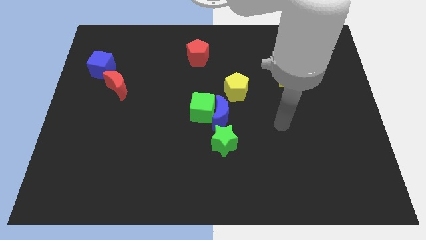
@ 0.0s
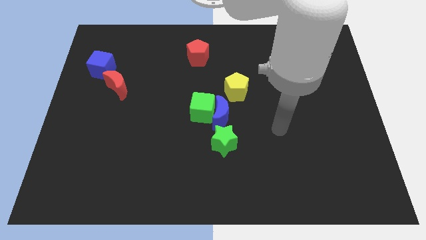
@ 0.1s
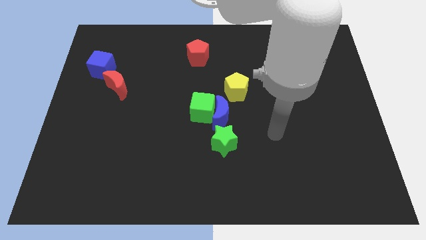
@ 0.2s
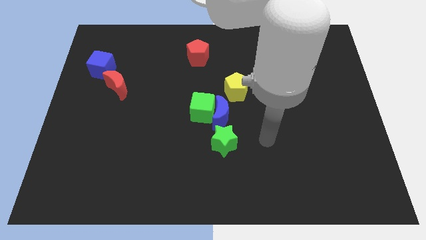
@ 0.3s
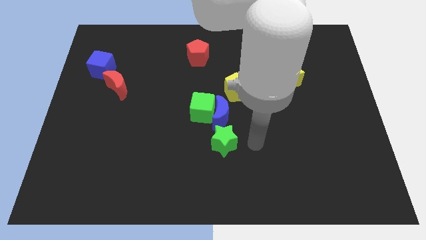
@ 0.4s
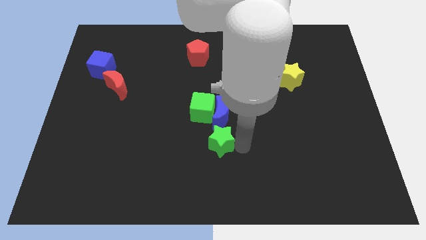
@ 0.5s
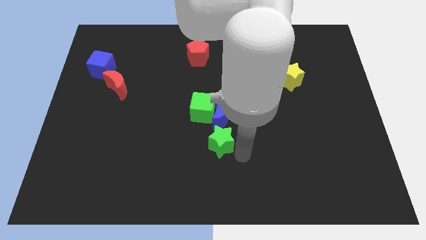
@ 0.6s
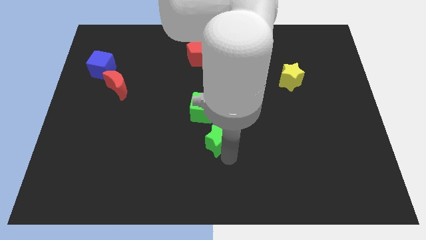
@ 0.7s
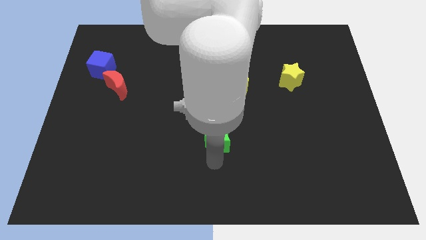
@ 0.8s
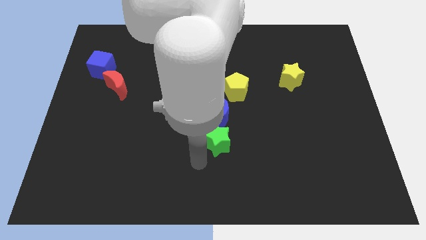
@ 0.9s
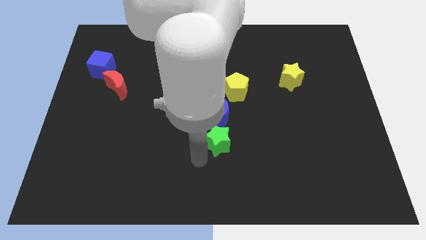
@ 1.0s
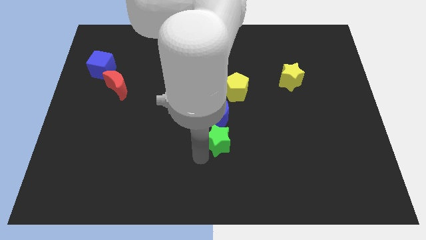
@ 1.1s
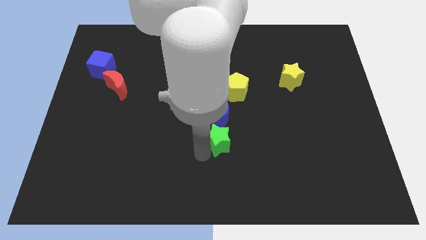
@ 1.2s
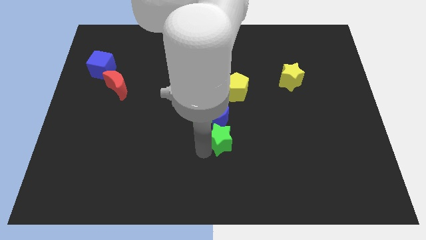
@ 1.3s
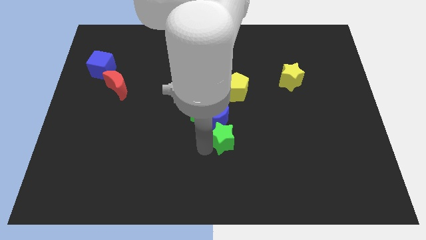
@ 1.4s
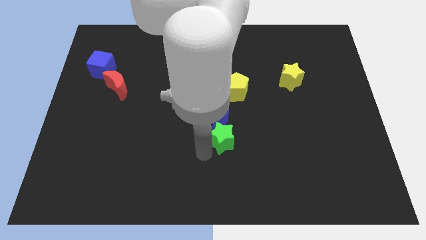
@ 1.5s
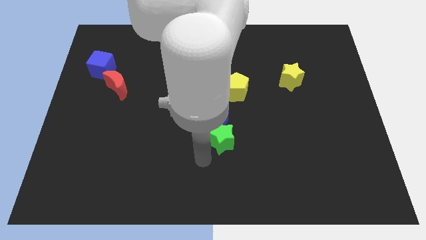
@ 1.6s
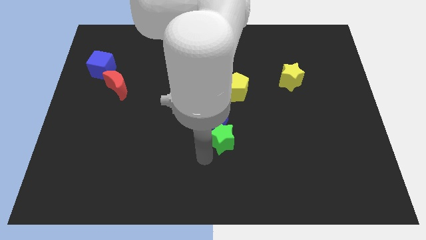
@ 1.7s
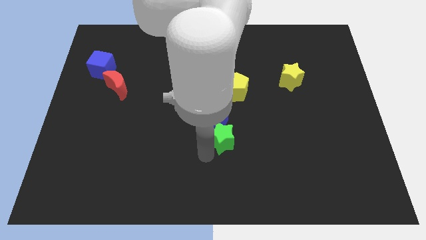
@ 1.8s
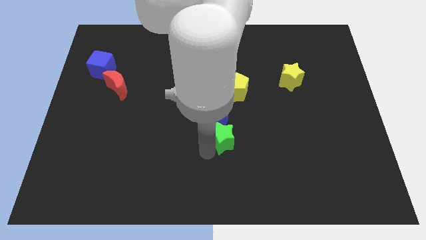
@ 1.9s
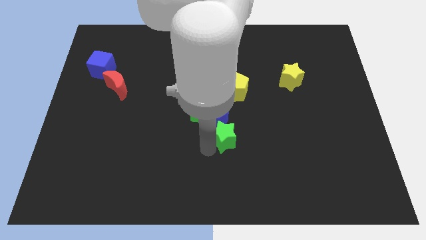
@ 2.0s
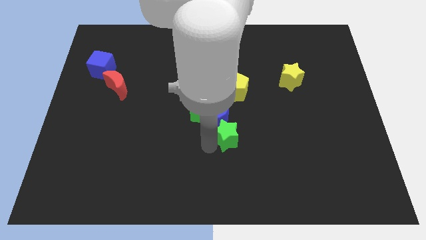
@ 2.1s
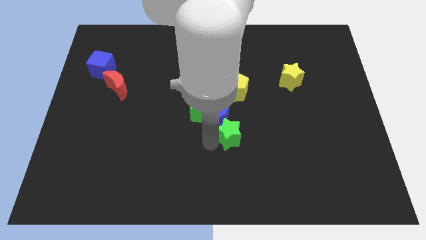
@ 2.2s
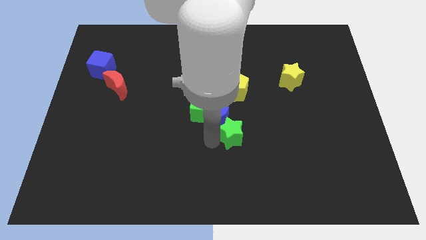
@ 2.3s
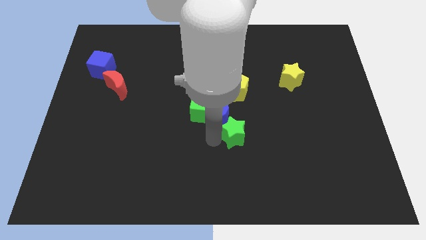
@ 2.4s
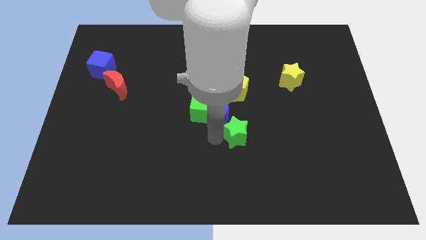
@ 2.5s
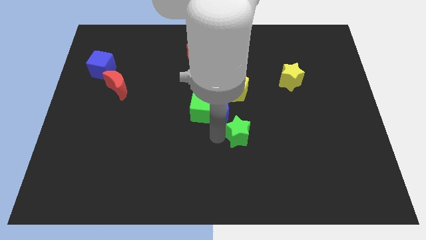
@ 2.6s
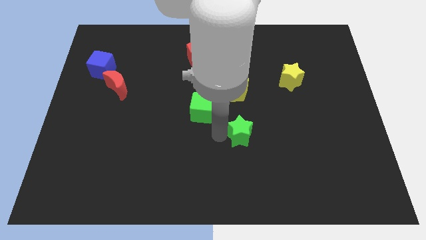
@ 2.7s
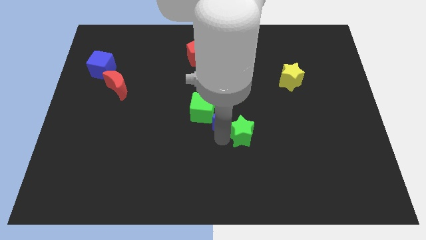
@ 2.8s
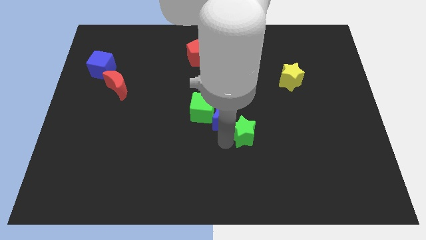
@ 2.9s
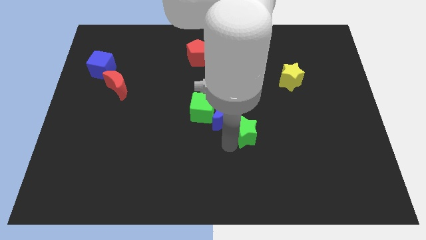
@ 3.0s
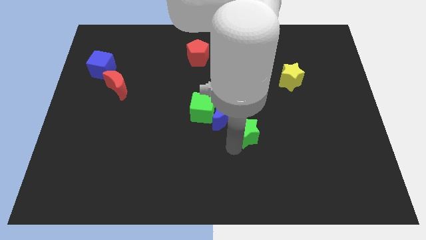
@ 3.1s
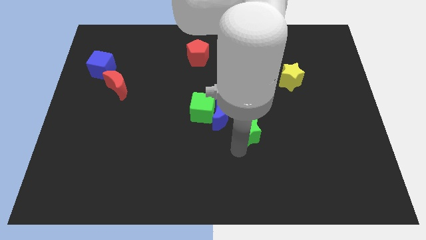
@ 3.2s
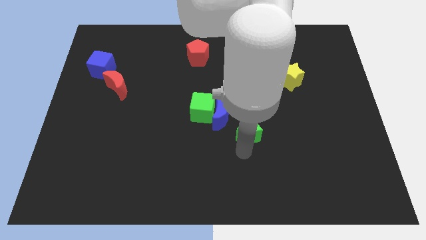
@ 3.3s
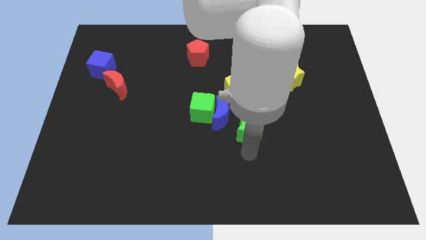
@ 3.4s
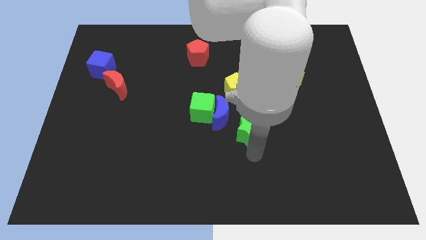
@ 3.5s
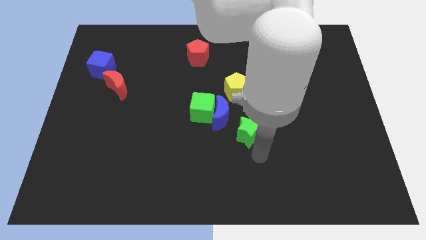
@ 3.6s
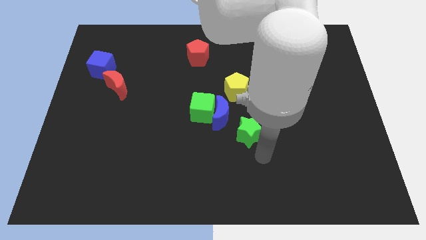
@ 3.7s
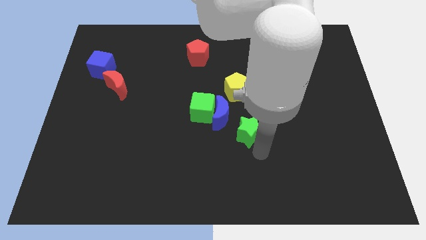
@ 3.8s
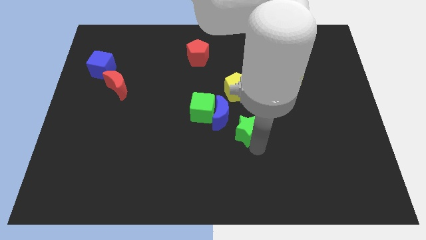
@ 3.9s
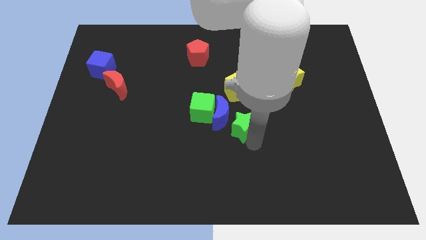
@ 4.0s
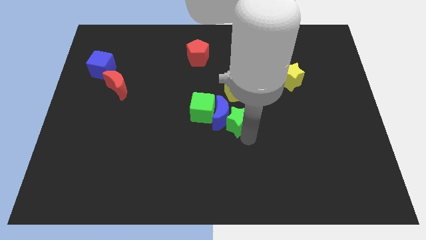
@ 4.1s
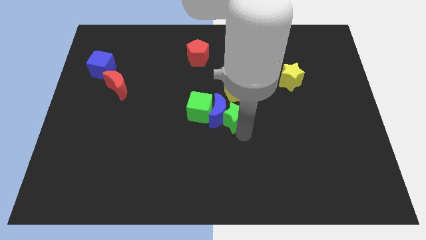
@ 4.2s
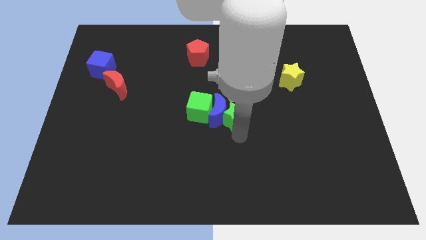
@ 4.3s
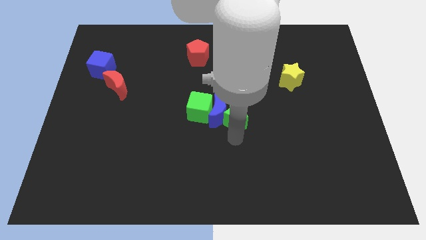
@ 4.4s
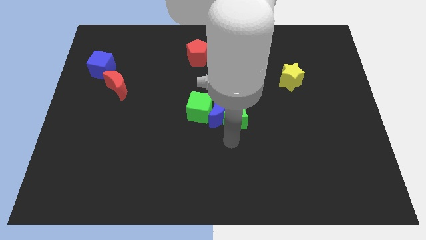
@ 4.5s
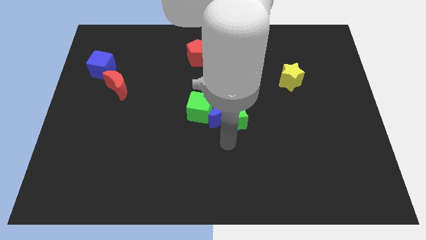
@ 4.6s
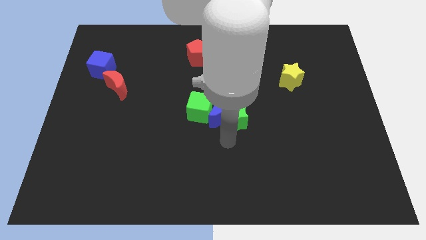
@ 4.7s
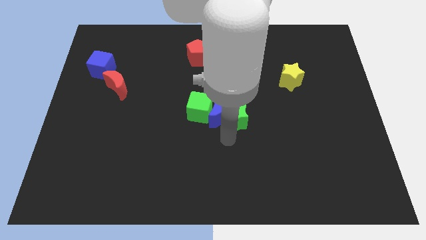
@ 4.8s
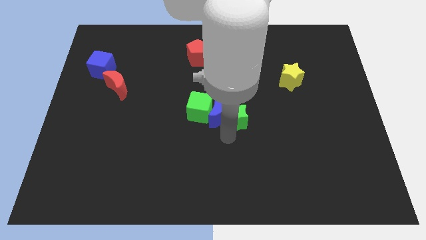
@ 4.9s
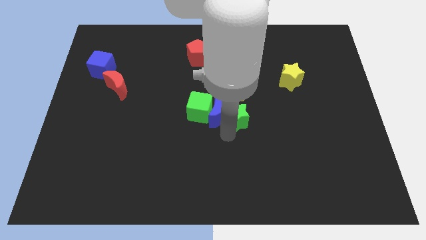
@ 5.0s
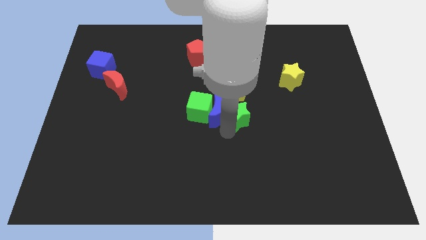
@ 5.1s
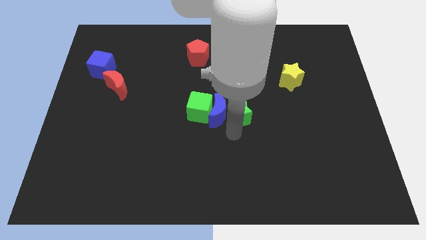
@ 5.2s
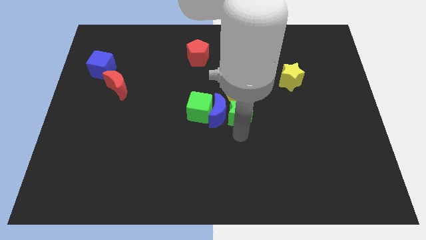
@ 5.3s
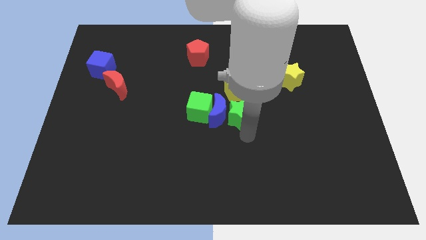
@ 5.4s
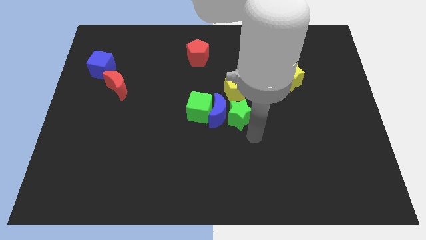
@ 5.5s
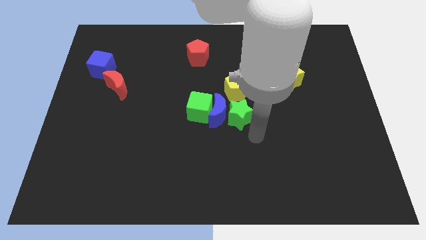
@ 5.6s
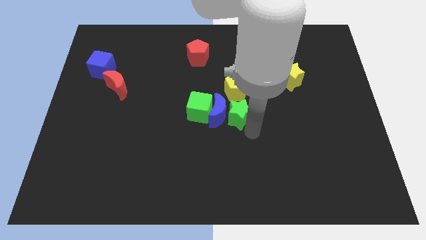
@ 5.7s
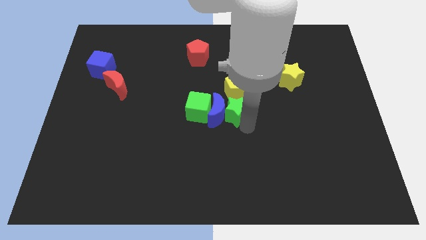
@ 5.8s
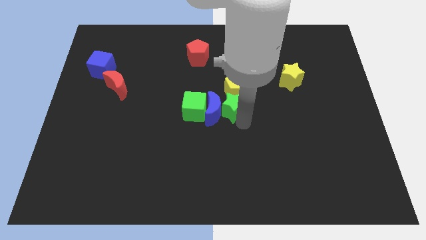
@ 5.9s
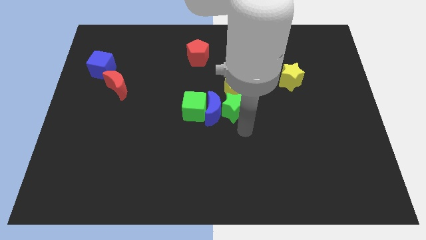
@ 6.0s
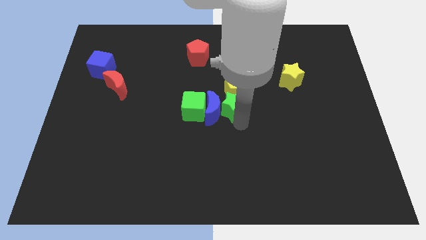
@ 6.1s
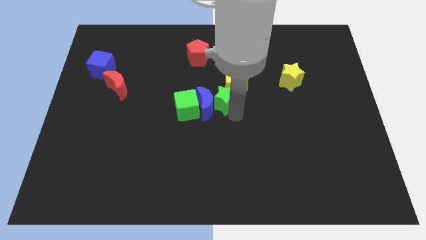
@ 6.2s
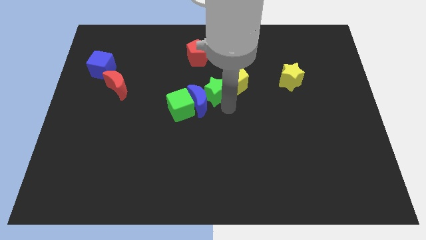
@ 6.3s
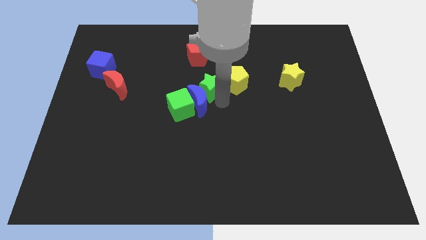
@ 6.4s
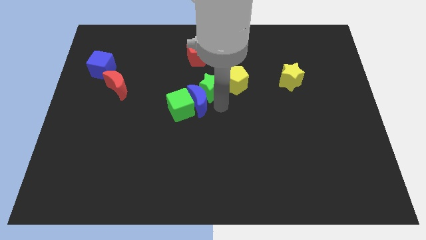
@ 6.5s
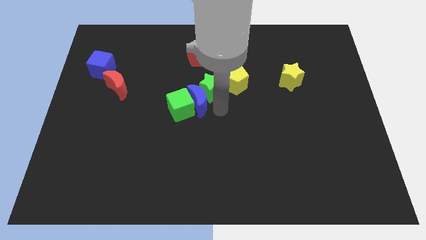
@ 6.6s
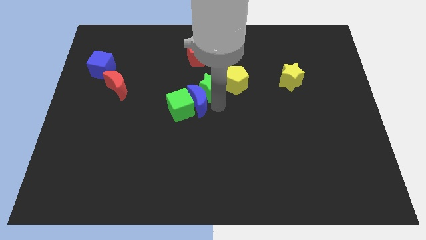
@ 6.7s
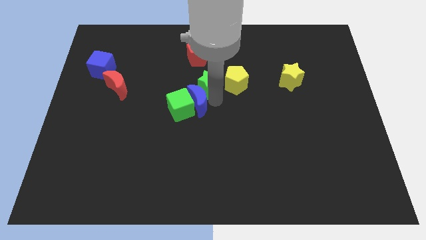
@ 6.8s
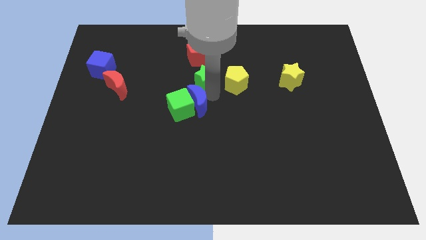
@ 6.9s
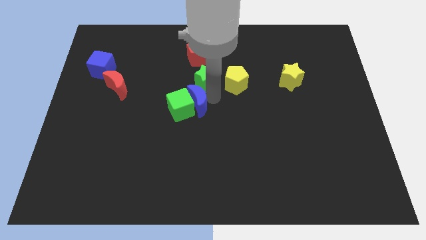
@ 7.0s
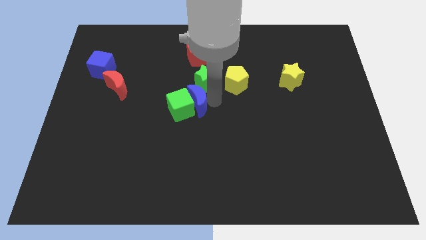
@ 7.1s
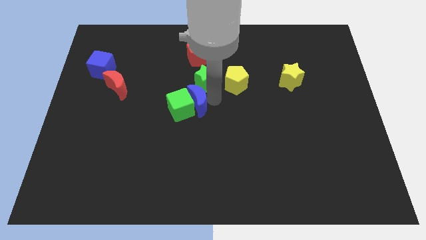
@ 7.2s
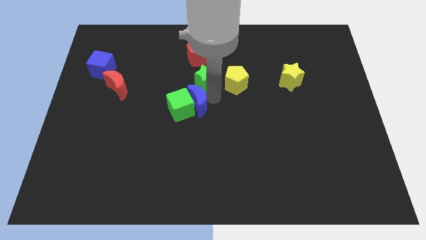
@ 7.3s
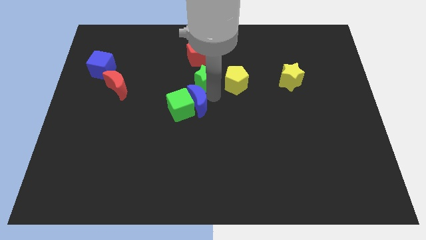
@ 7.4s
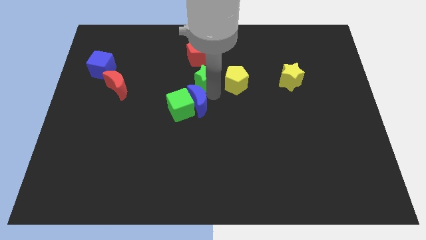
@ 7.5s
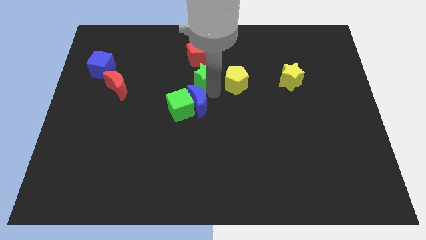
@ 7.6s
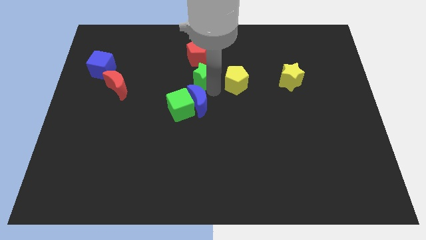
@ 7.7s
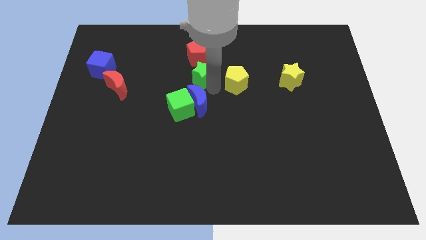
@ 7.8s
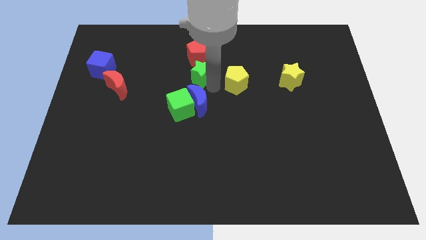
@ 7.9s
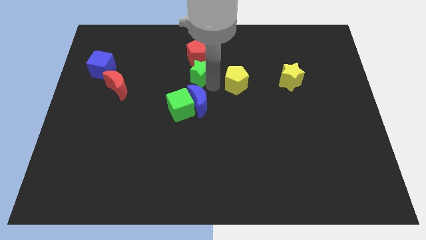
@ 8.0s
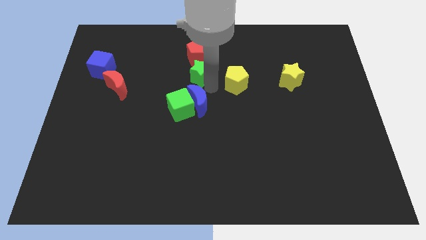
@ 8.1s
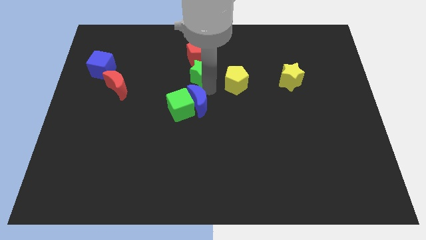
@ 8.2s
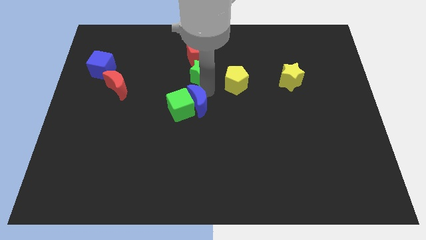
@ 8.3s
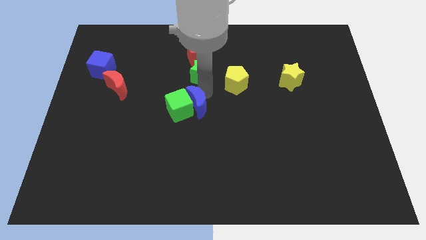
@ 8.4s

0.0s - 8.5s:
move the green star to the top of the blue moon
